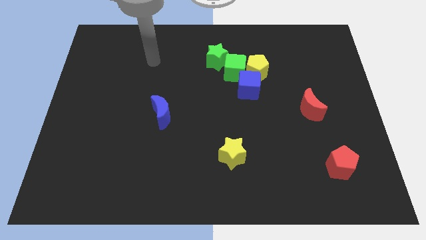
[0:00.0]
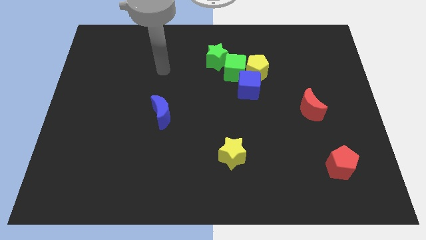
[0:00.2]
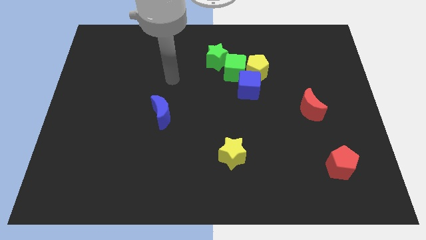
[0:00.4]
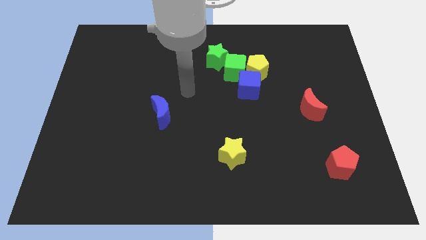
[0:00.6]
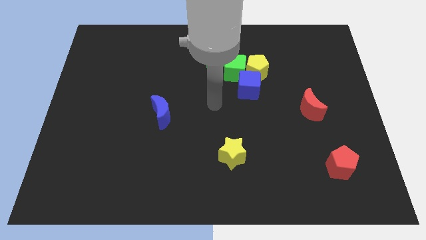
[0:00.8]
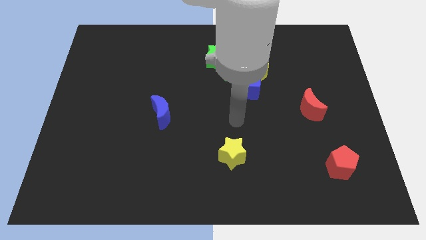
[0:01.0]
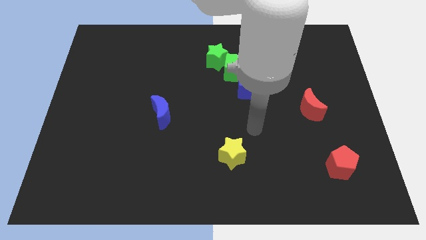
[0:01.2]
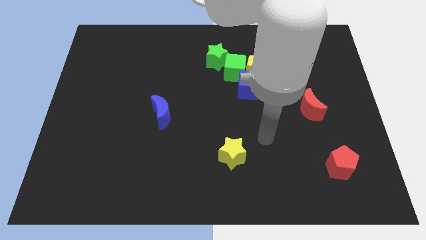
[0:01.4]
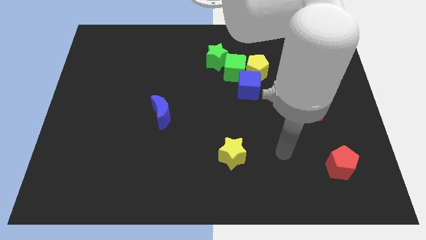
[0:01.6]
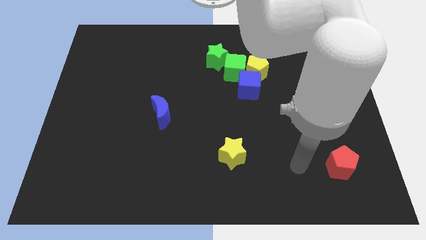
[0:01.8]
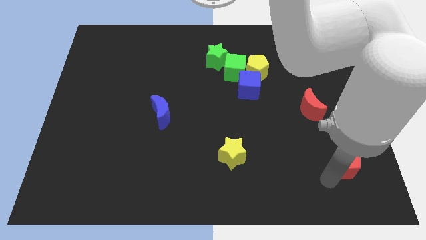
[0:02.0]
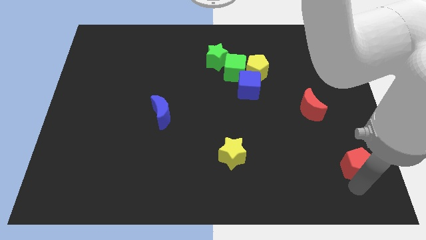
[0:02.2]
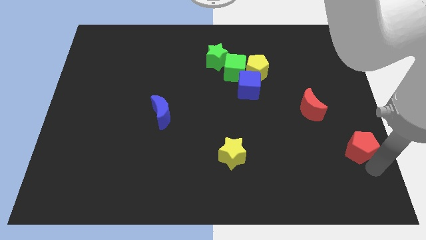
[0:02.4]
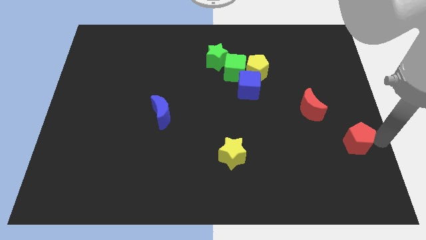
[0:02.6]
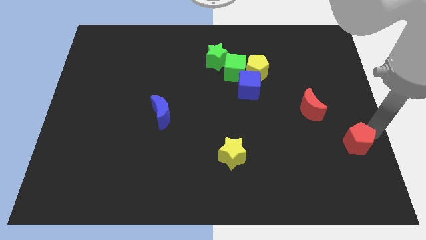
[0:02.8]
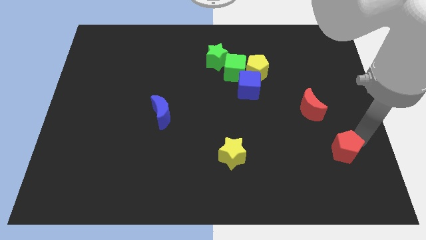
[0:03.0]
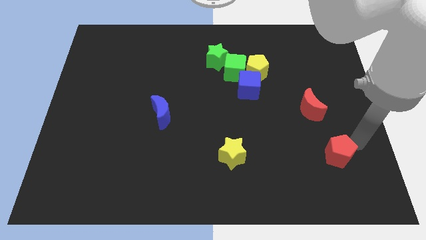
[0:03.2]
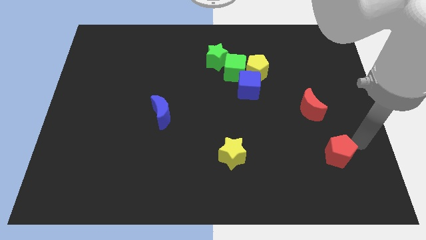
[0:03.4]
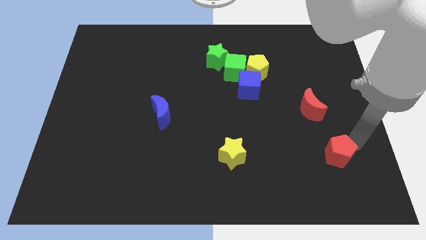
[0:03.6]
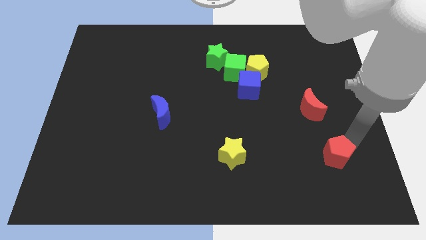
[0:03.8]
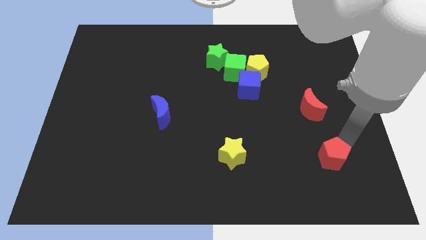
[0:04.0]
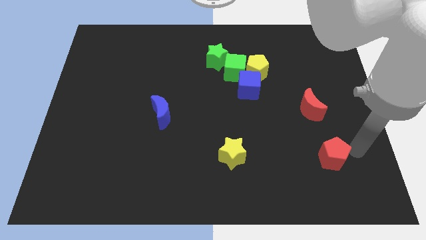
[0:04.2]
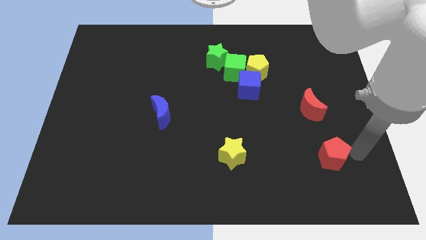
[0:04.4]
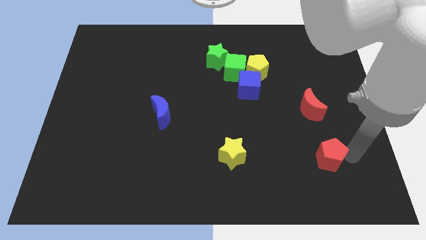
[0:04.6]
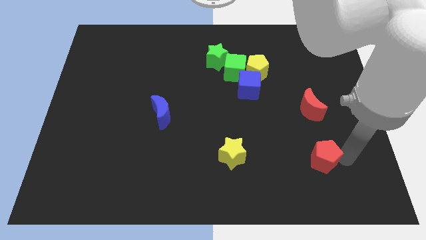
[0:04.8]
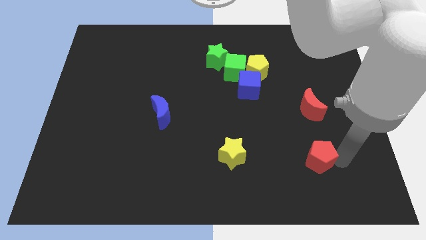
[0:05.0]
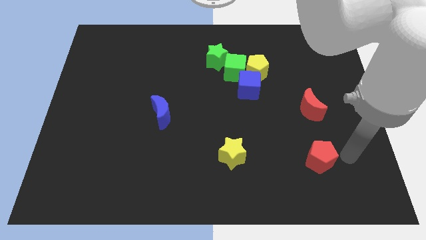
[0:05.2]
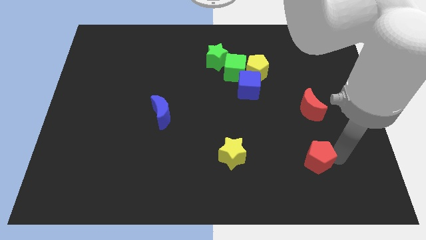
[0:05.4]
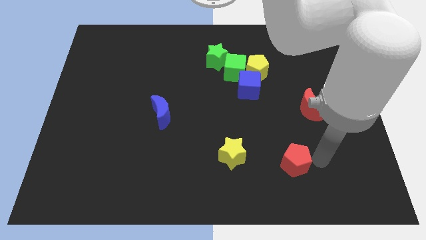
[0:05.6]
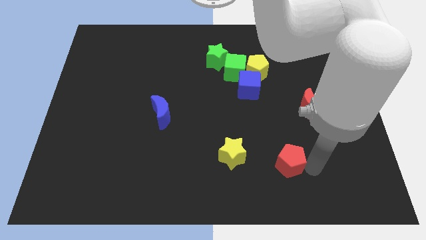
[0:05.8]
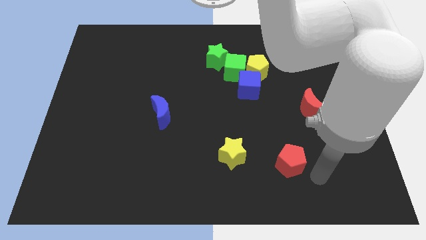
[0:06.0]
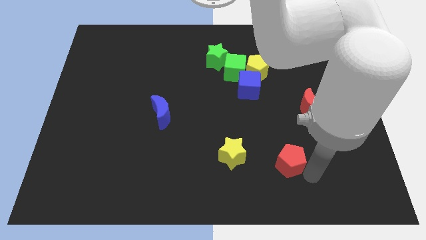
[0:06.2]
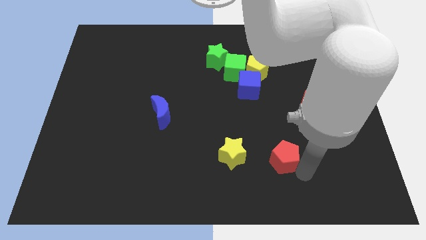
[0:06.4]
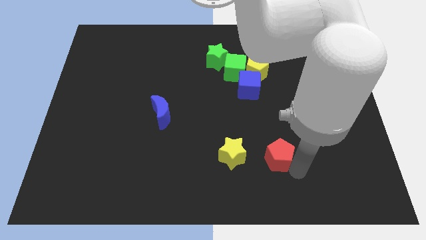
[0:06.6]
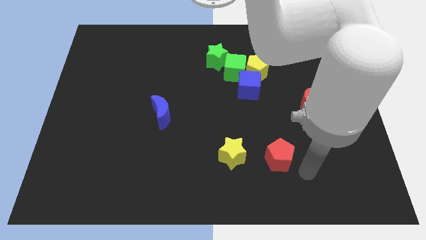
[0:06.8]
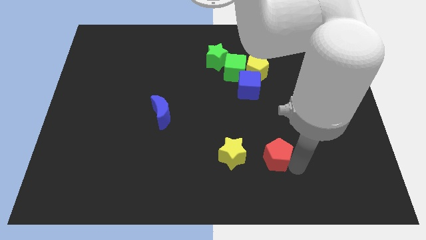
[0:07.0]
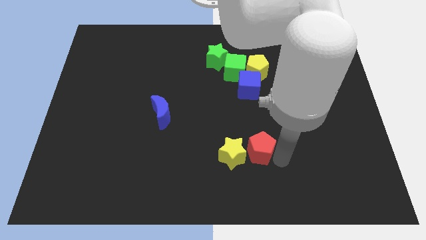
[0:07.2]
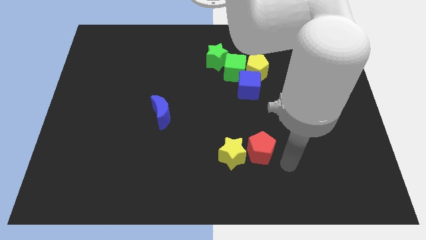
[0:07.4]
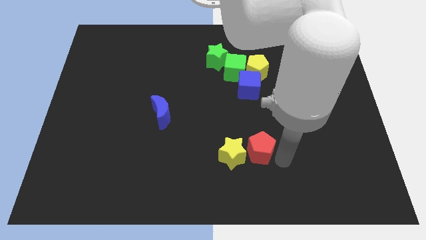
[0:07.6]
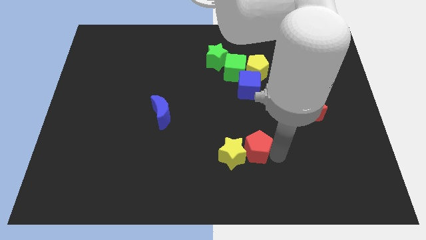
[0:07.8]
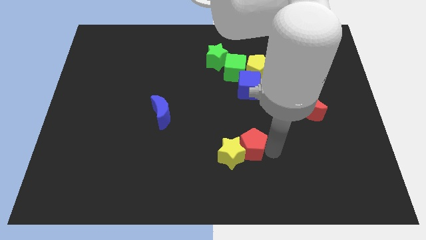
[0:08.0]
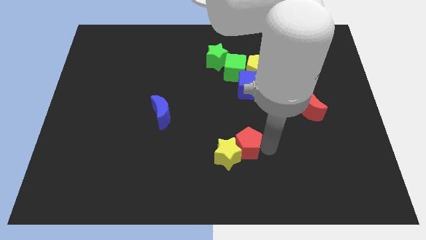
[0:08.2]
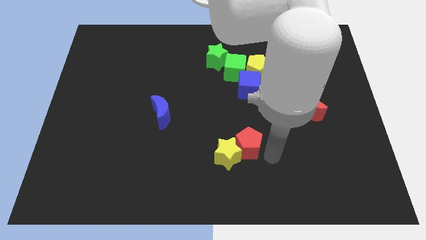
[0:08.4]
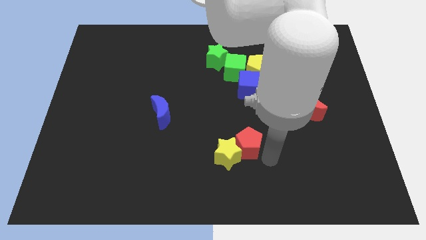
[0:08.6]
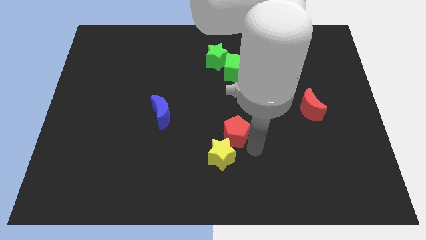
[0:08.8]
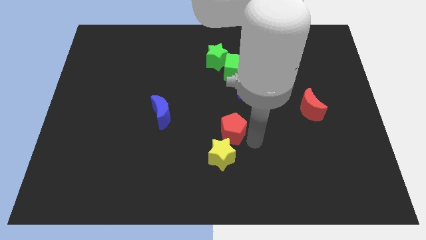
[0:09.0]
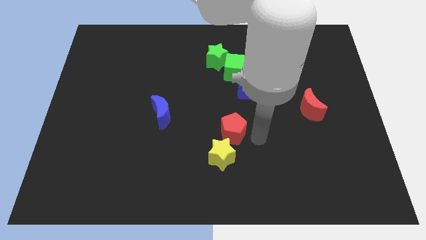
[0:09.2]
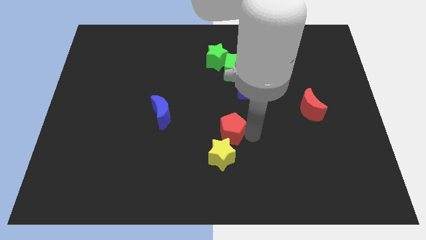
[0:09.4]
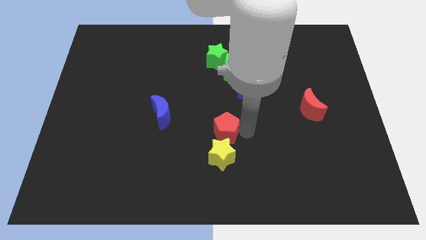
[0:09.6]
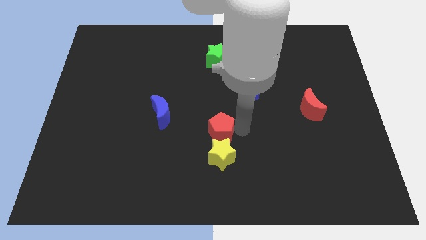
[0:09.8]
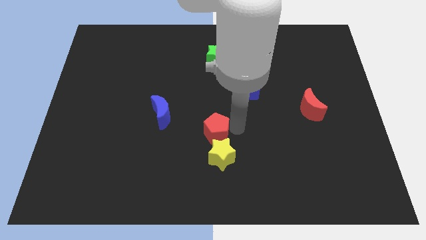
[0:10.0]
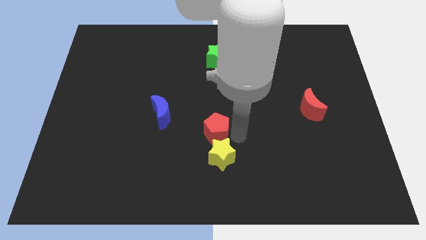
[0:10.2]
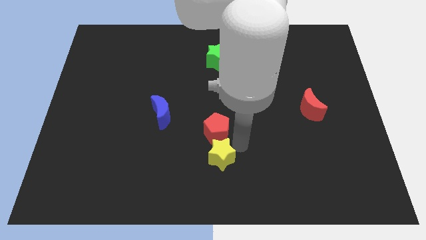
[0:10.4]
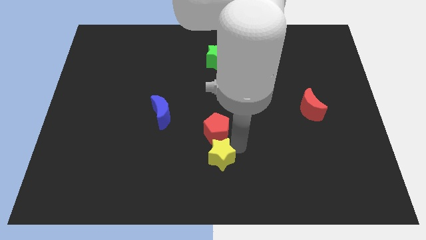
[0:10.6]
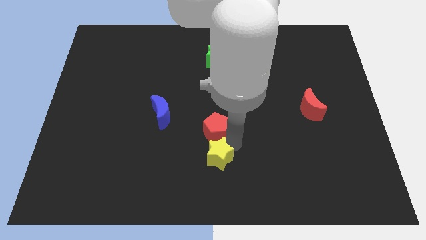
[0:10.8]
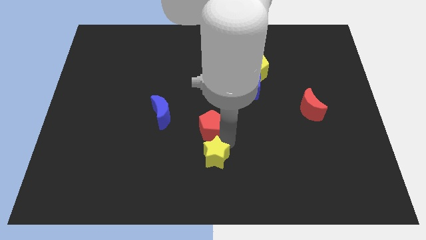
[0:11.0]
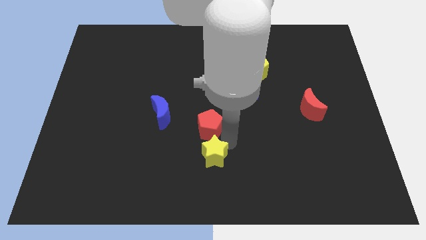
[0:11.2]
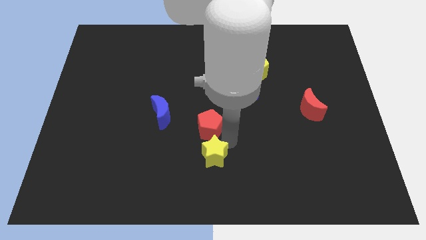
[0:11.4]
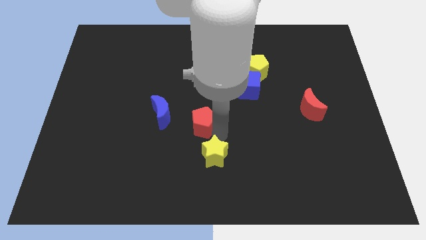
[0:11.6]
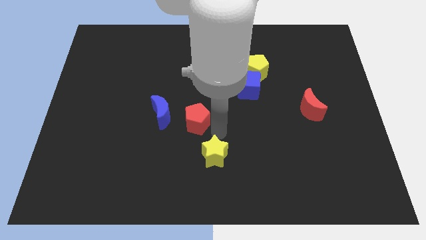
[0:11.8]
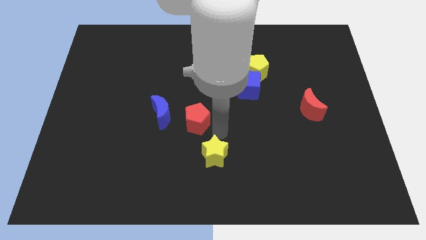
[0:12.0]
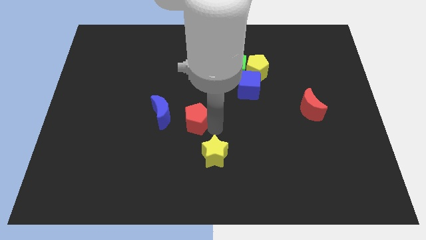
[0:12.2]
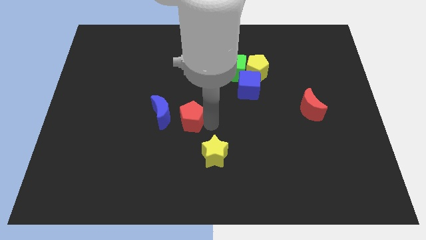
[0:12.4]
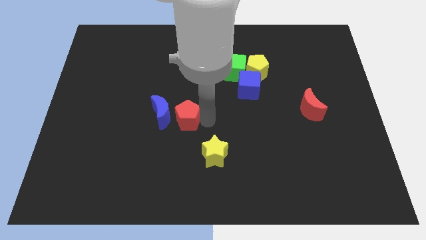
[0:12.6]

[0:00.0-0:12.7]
put the red pentagon to the blue moon

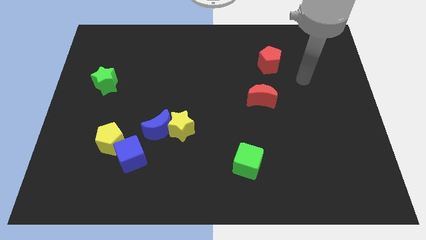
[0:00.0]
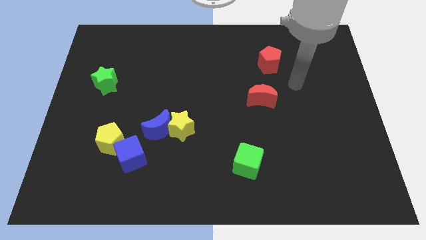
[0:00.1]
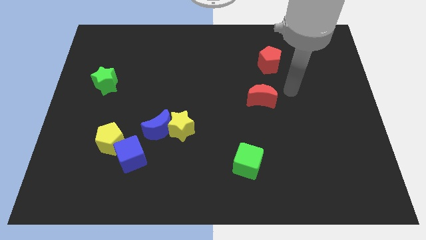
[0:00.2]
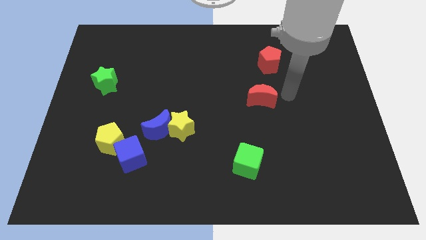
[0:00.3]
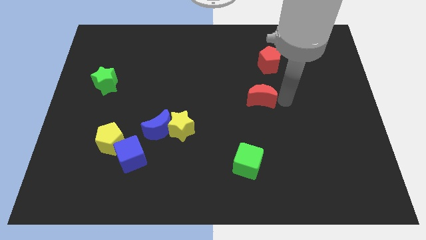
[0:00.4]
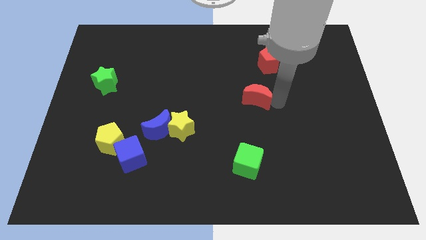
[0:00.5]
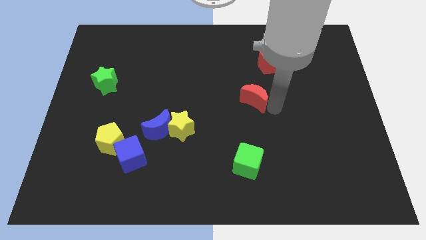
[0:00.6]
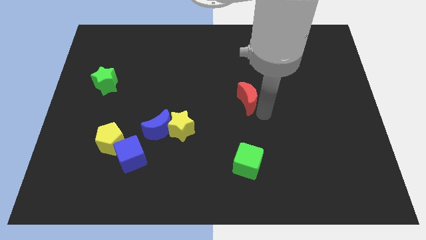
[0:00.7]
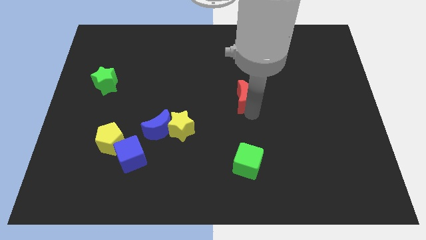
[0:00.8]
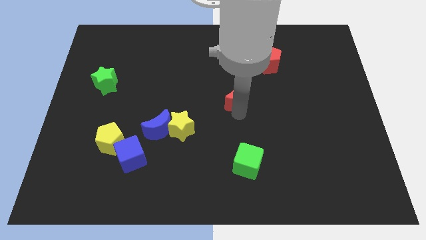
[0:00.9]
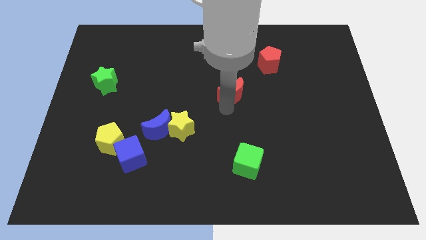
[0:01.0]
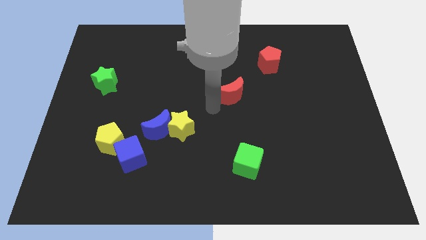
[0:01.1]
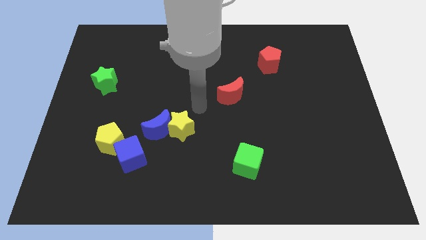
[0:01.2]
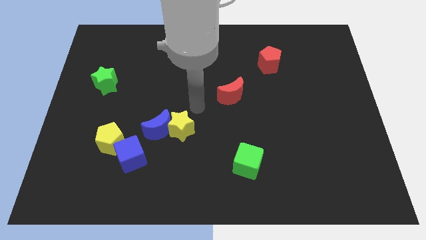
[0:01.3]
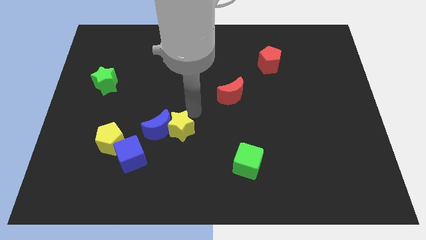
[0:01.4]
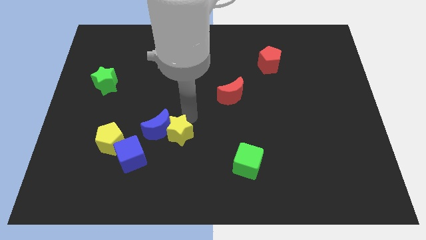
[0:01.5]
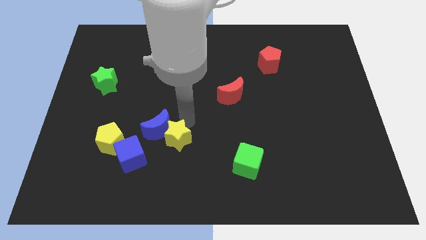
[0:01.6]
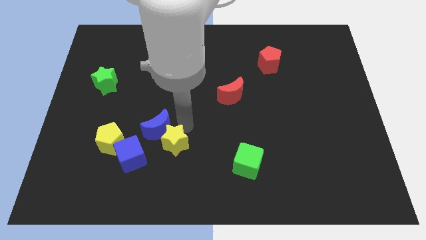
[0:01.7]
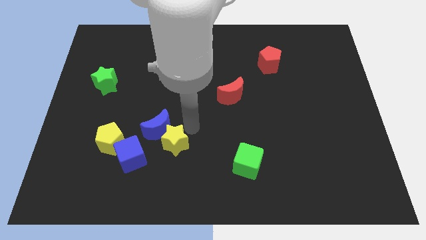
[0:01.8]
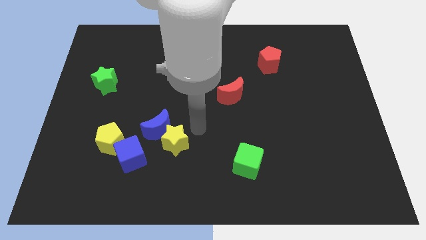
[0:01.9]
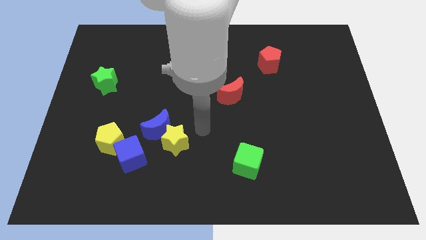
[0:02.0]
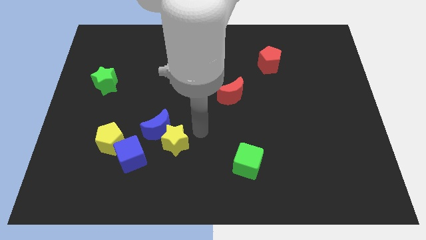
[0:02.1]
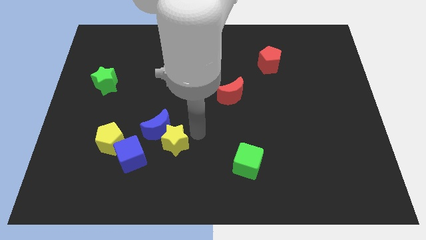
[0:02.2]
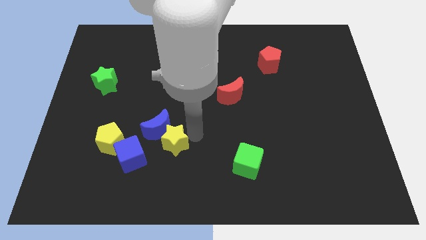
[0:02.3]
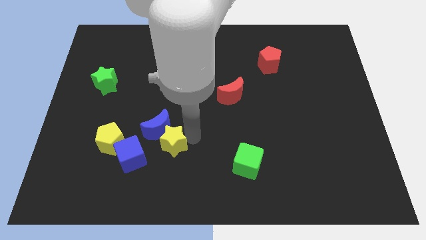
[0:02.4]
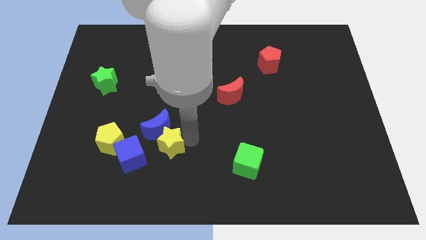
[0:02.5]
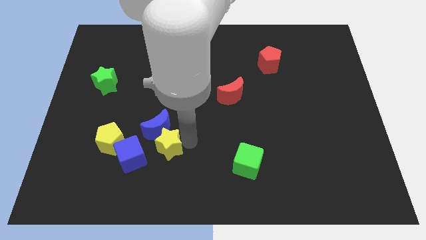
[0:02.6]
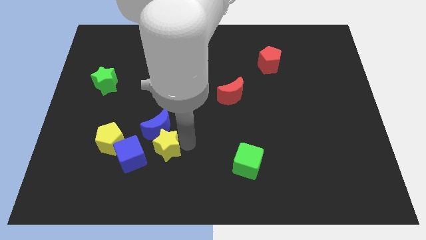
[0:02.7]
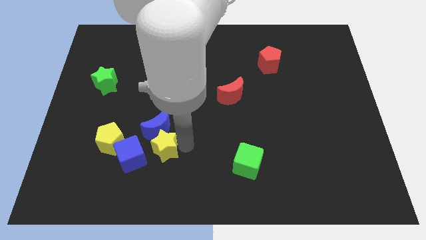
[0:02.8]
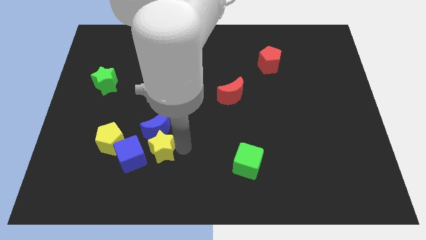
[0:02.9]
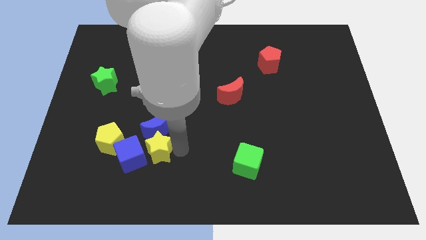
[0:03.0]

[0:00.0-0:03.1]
push the yellow star towards the blue cube
